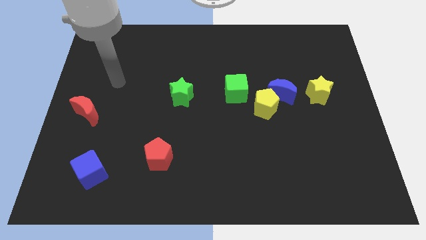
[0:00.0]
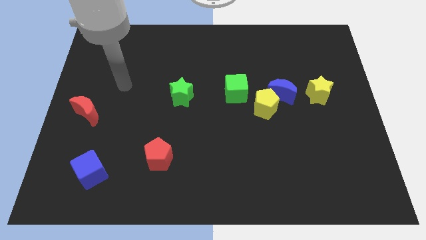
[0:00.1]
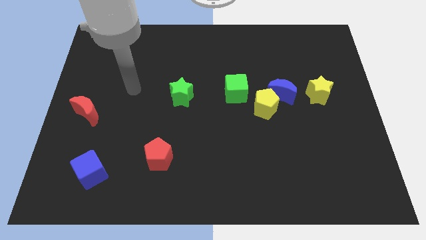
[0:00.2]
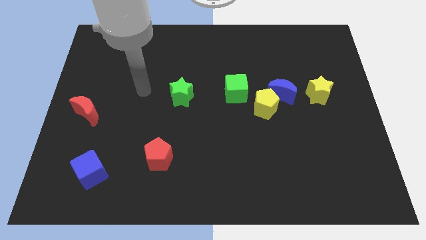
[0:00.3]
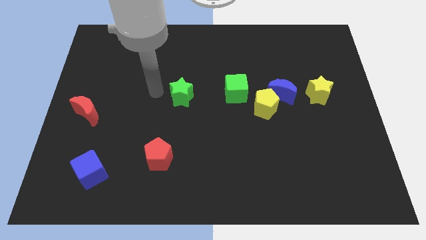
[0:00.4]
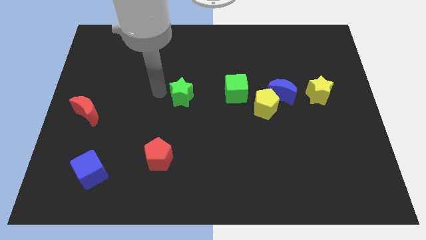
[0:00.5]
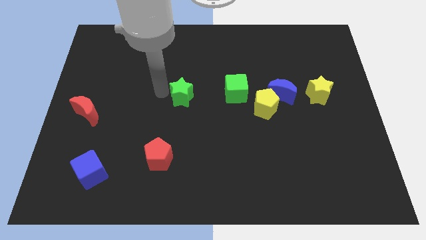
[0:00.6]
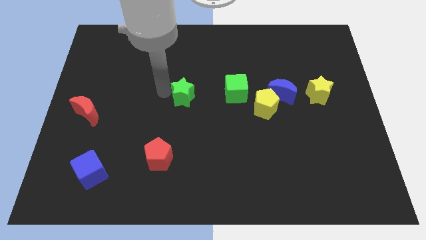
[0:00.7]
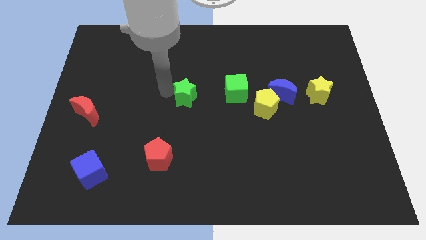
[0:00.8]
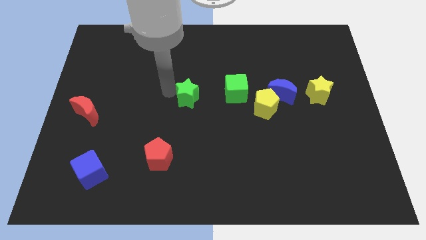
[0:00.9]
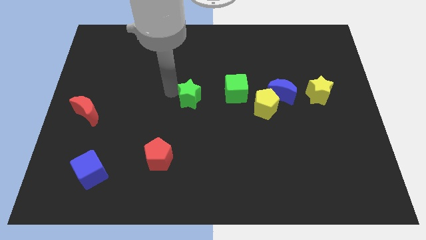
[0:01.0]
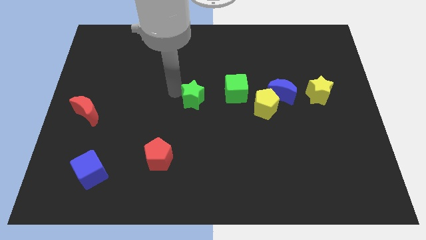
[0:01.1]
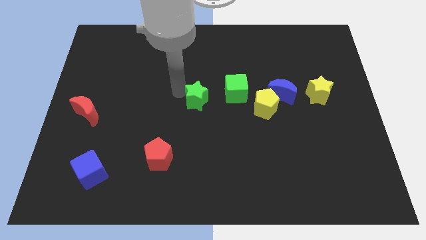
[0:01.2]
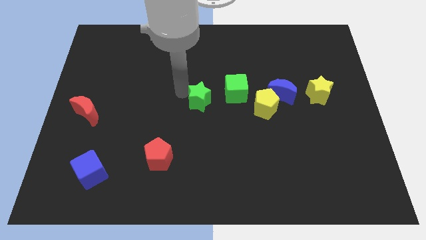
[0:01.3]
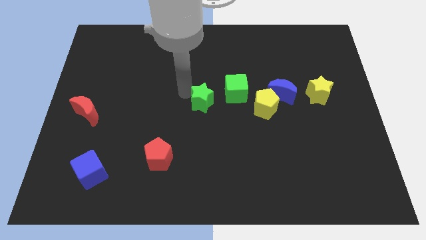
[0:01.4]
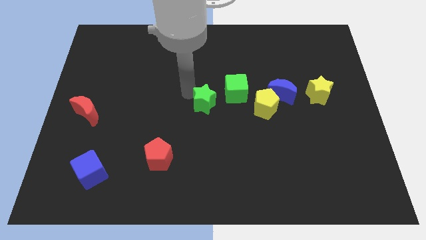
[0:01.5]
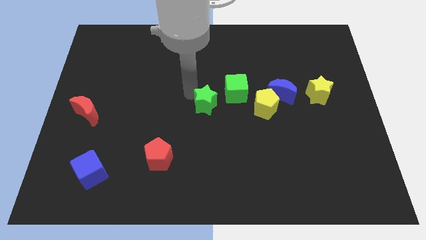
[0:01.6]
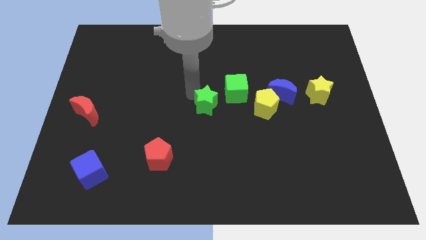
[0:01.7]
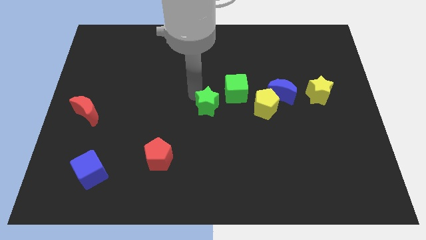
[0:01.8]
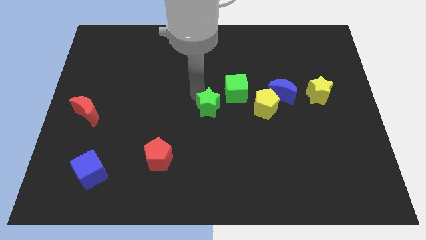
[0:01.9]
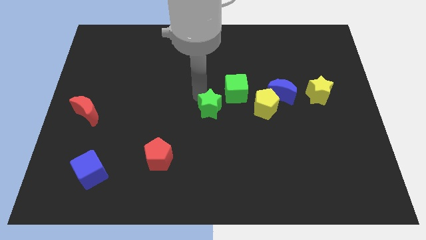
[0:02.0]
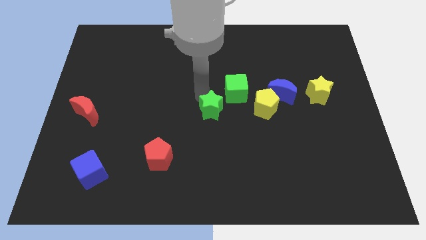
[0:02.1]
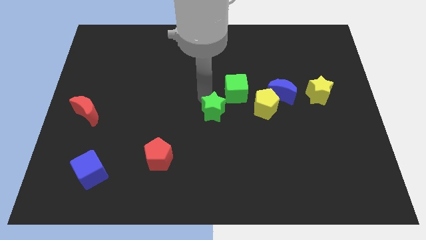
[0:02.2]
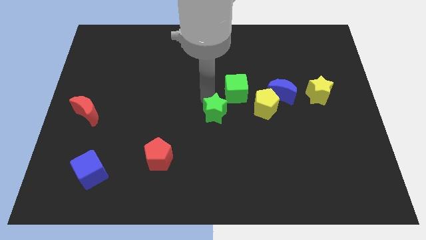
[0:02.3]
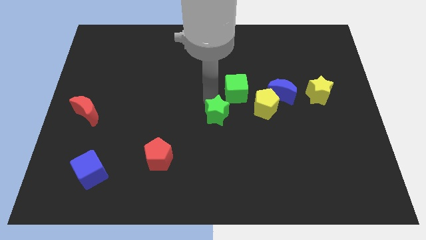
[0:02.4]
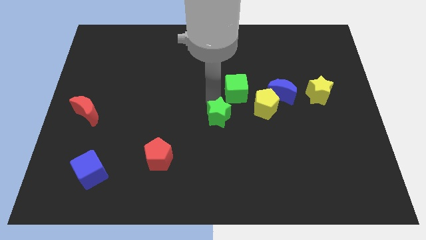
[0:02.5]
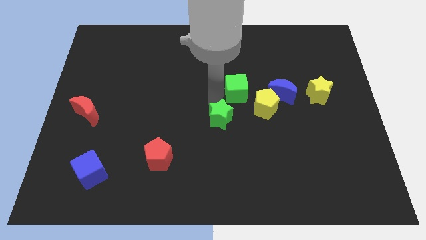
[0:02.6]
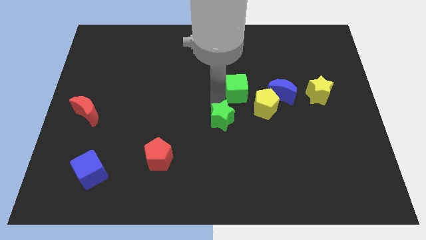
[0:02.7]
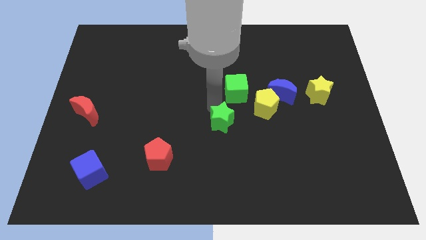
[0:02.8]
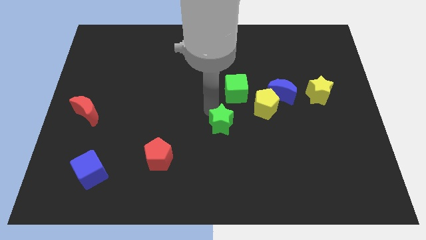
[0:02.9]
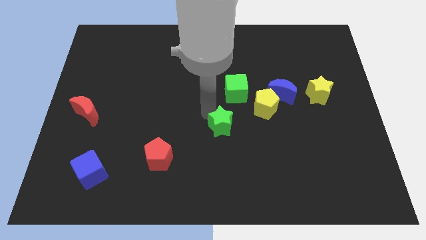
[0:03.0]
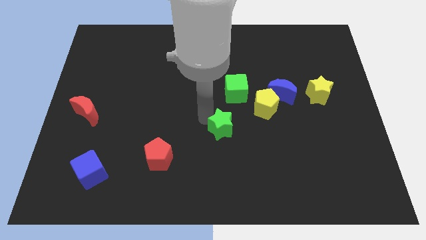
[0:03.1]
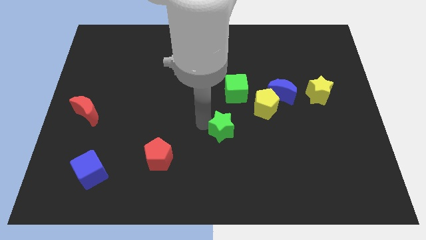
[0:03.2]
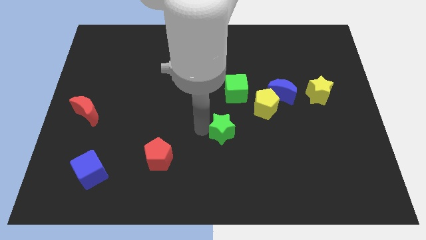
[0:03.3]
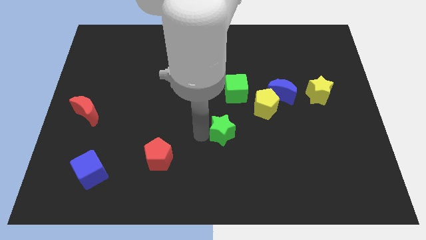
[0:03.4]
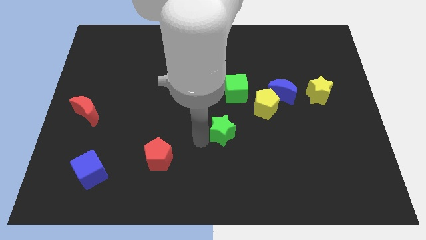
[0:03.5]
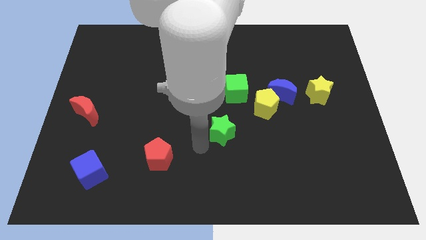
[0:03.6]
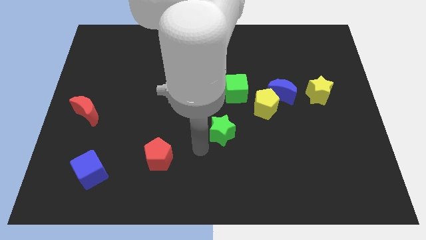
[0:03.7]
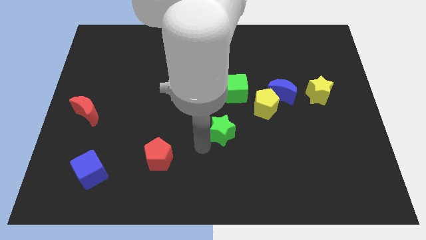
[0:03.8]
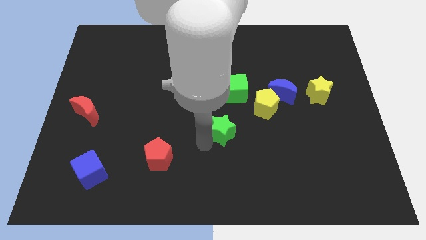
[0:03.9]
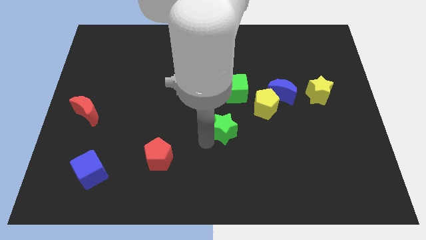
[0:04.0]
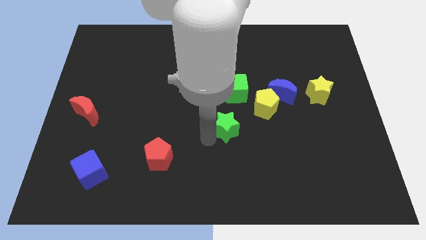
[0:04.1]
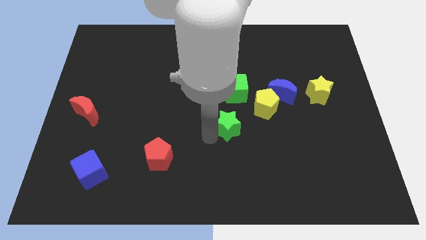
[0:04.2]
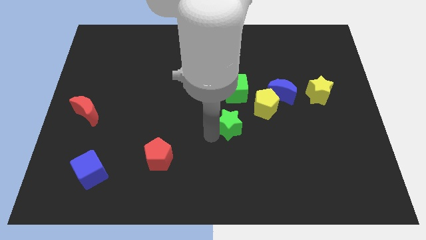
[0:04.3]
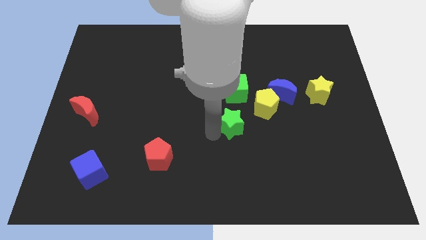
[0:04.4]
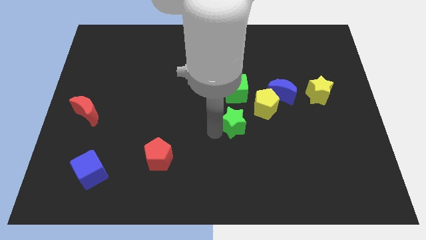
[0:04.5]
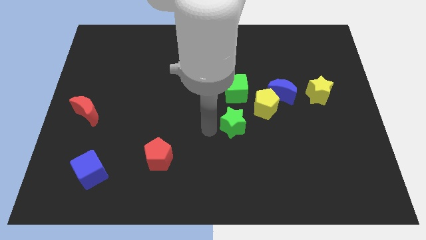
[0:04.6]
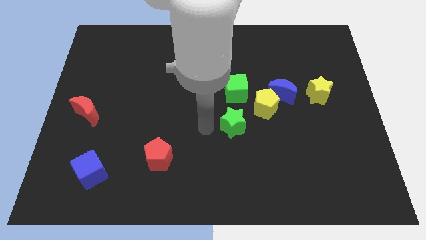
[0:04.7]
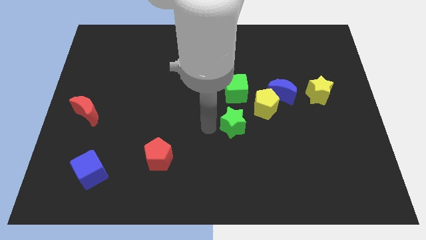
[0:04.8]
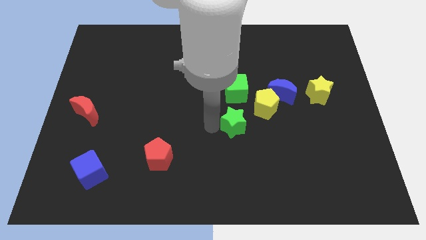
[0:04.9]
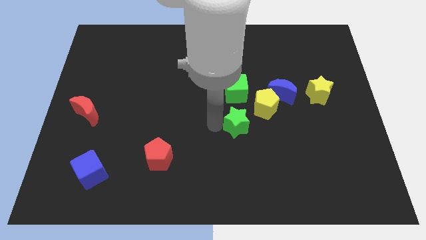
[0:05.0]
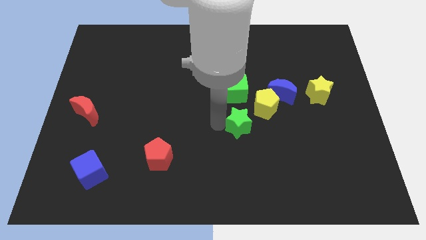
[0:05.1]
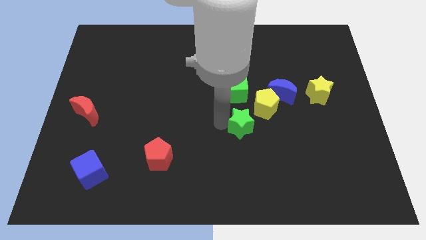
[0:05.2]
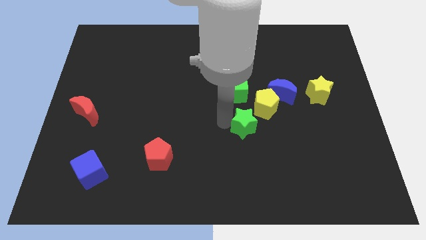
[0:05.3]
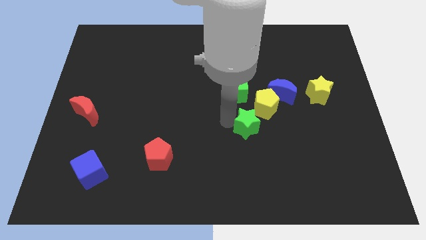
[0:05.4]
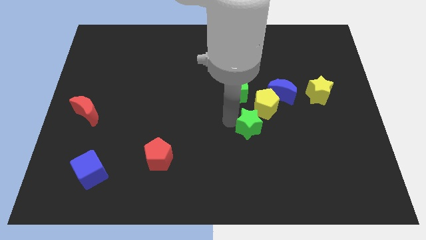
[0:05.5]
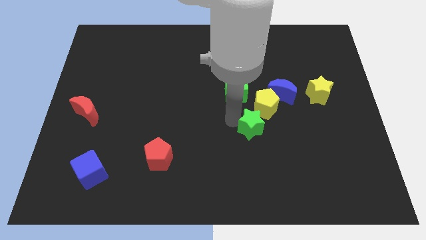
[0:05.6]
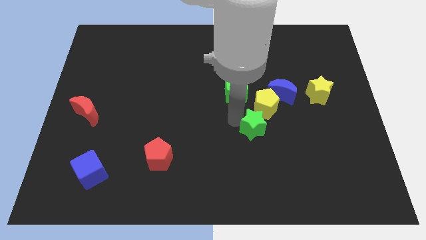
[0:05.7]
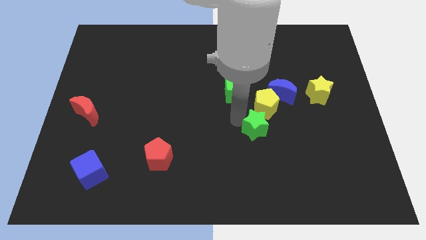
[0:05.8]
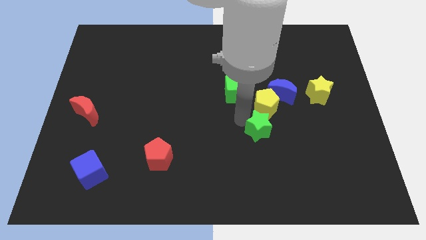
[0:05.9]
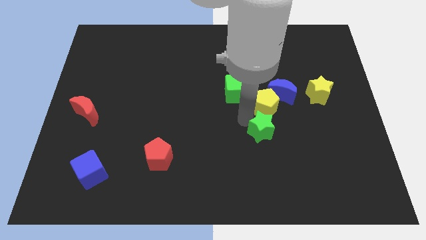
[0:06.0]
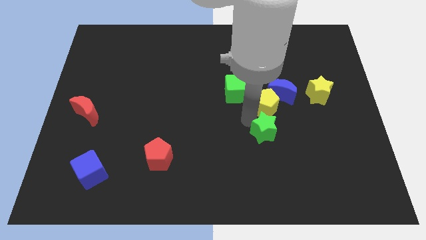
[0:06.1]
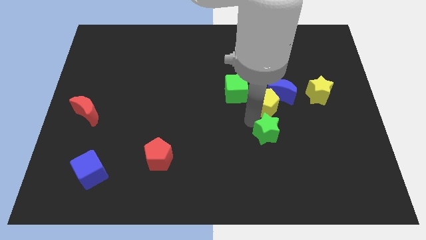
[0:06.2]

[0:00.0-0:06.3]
push the green star to the bottom right of the yellow pentagon

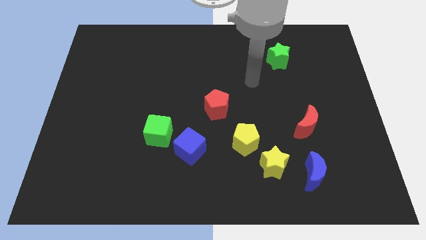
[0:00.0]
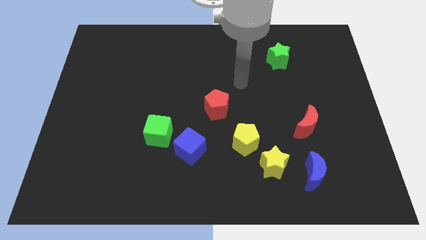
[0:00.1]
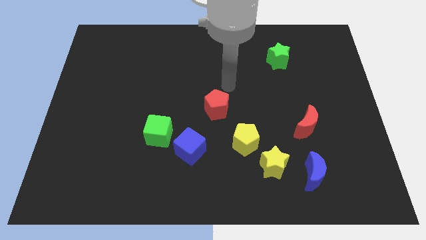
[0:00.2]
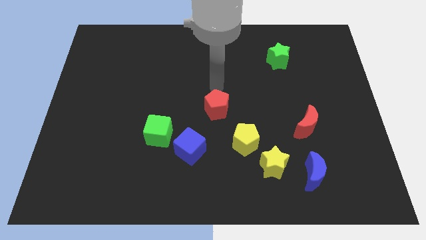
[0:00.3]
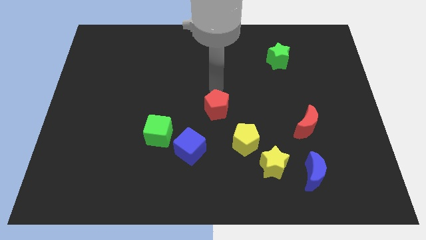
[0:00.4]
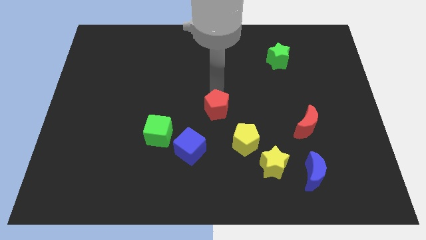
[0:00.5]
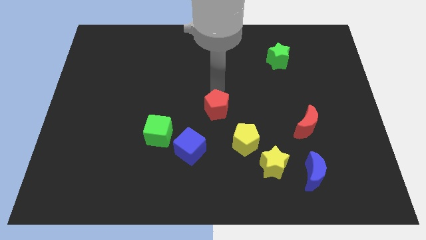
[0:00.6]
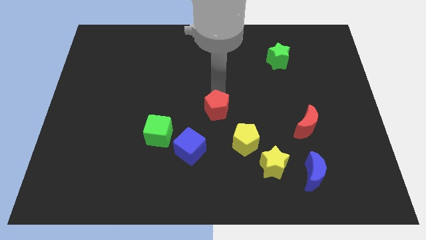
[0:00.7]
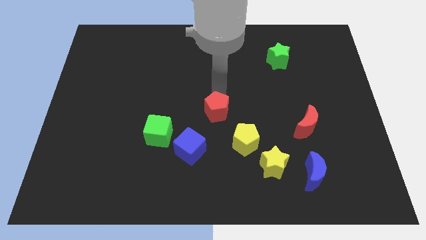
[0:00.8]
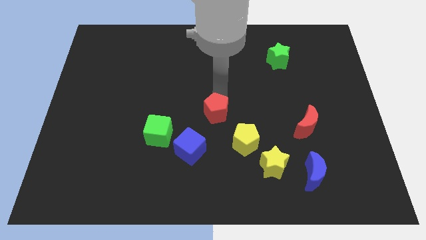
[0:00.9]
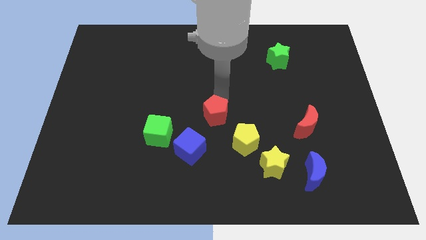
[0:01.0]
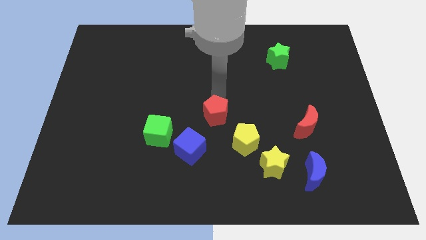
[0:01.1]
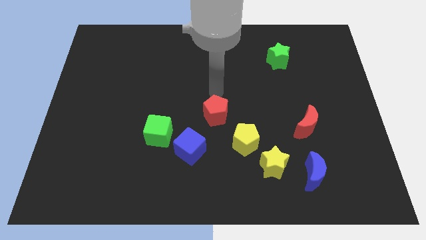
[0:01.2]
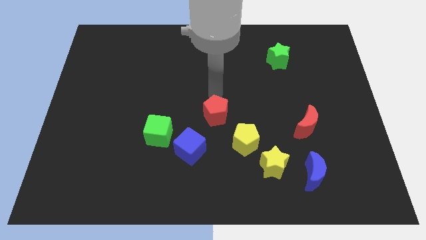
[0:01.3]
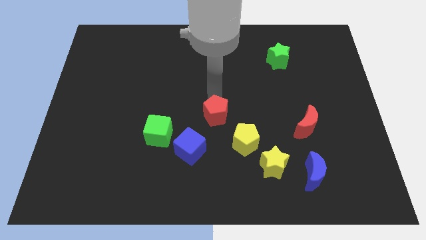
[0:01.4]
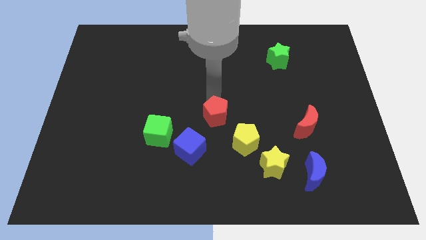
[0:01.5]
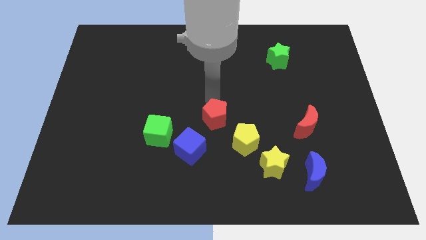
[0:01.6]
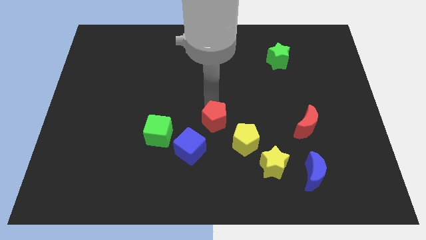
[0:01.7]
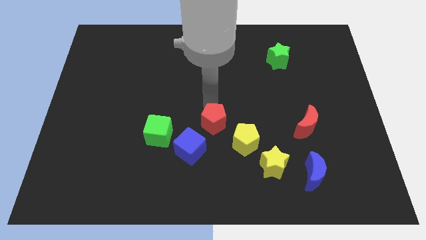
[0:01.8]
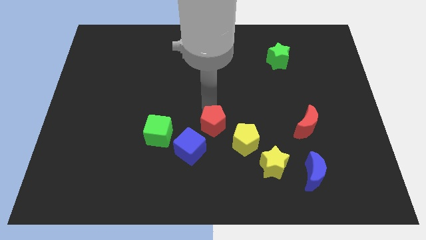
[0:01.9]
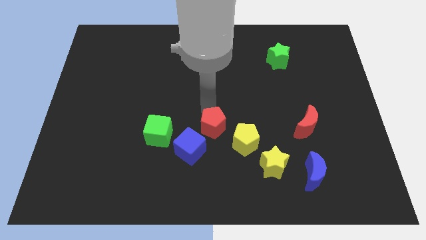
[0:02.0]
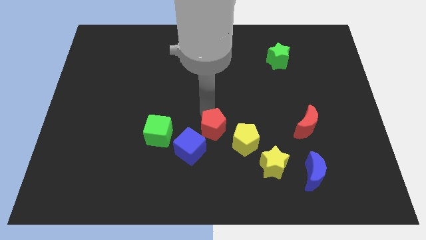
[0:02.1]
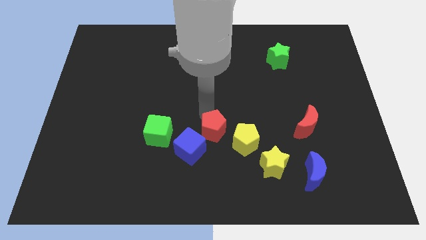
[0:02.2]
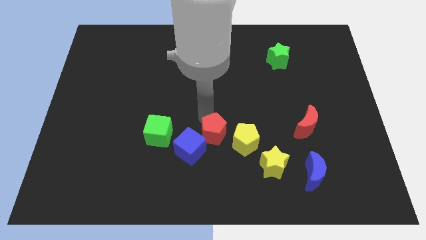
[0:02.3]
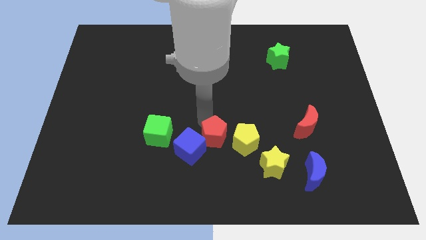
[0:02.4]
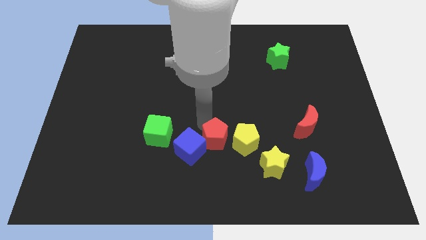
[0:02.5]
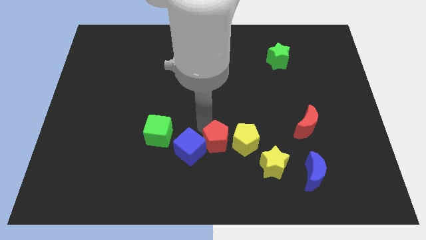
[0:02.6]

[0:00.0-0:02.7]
move the red pentagon to the bottom left side of the yellow pentagon
